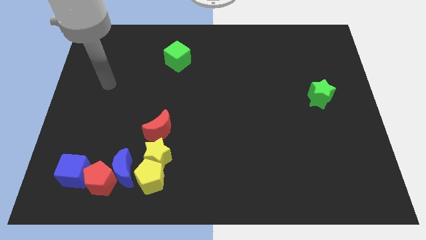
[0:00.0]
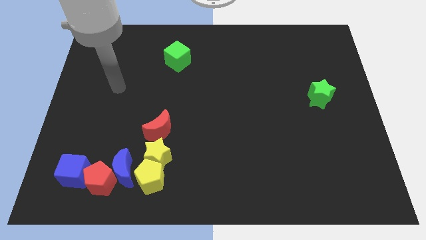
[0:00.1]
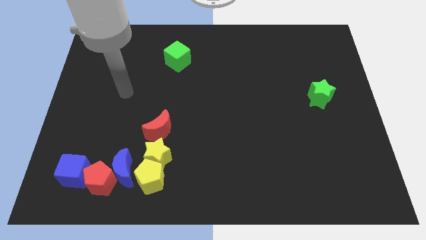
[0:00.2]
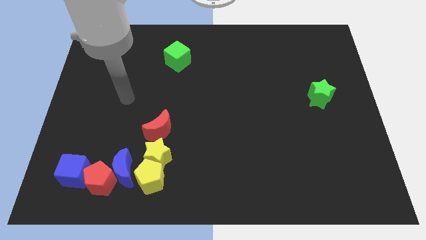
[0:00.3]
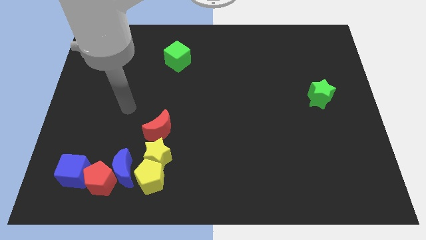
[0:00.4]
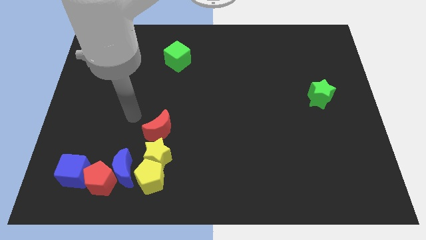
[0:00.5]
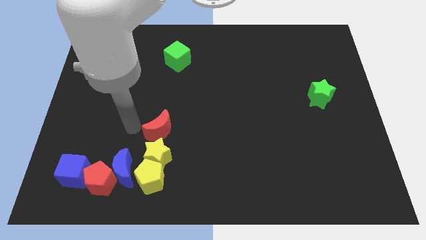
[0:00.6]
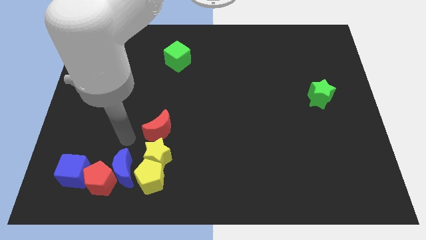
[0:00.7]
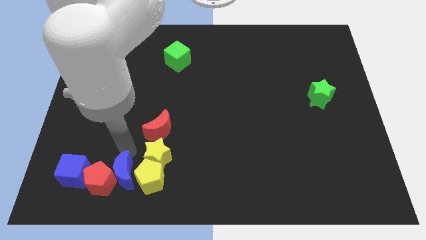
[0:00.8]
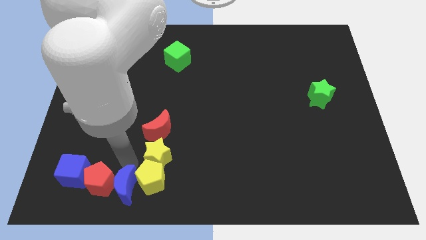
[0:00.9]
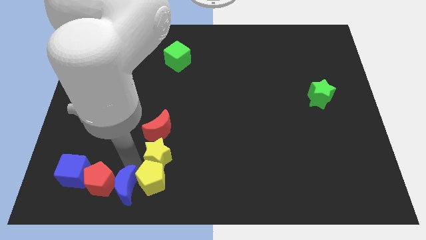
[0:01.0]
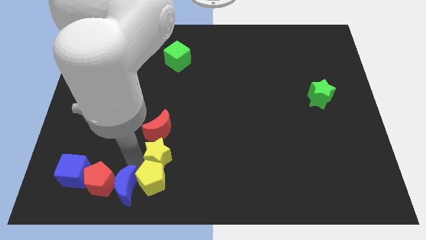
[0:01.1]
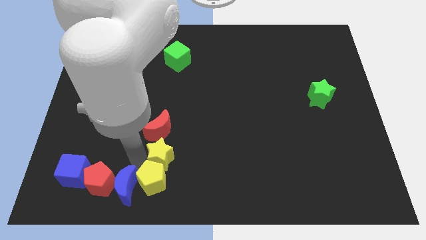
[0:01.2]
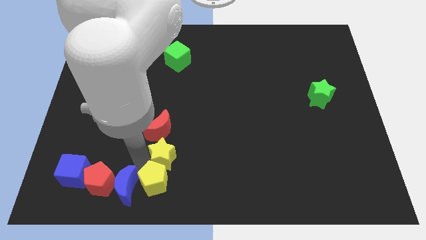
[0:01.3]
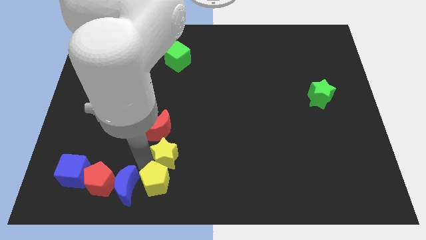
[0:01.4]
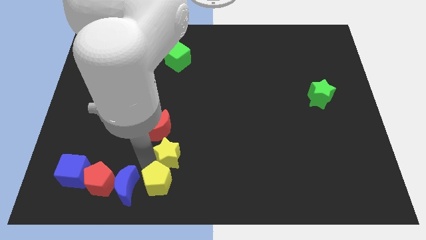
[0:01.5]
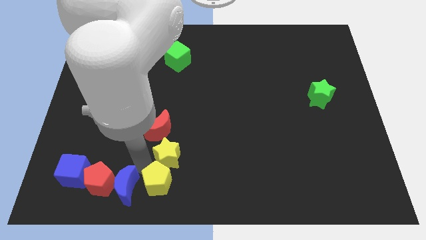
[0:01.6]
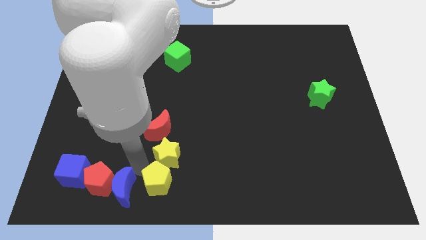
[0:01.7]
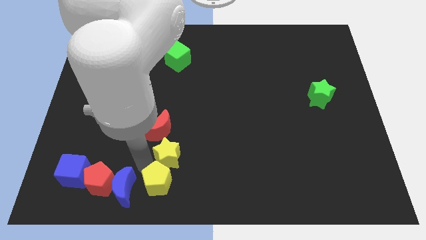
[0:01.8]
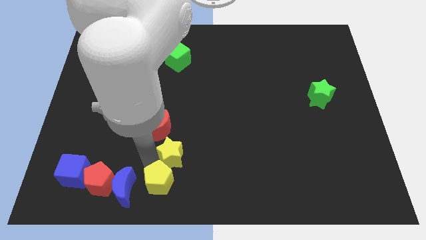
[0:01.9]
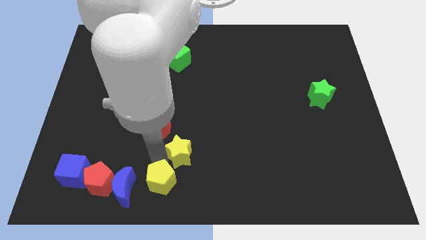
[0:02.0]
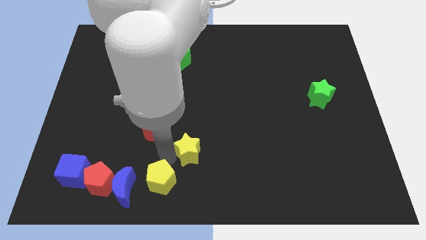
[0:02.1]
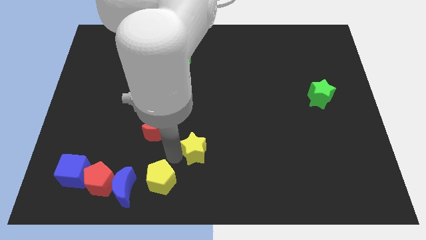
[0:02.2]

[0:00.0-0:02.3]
separate the yellow star from the yellow pentagon, red moon, and blue moon

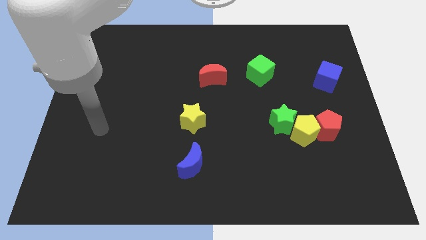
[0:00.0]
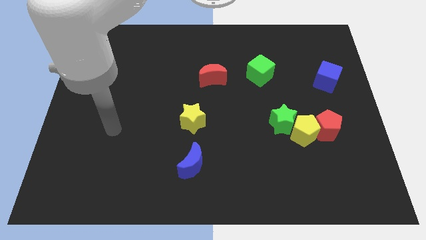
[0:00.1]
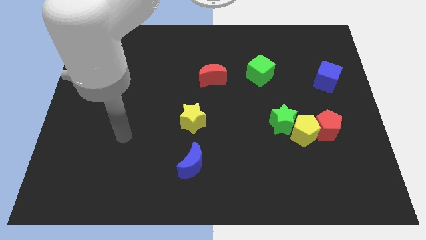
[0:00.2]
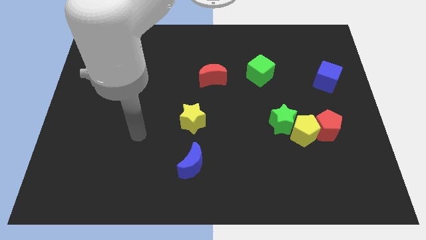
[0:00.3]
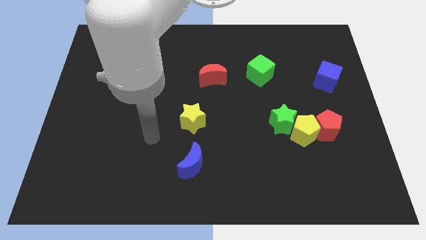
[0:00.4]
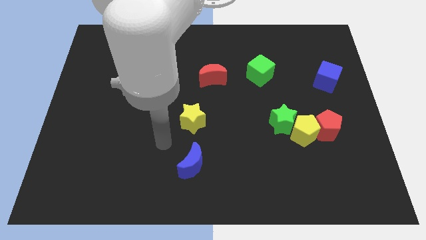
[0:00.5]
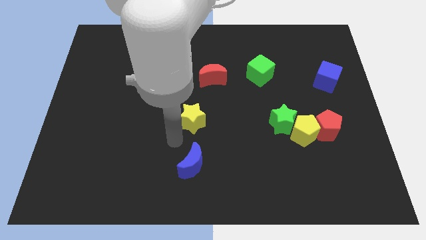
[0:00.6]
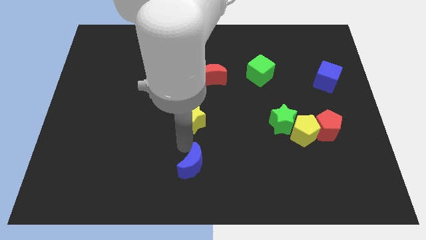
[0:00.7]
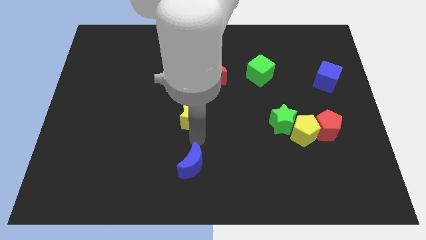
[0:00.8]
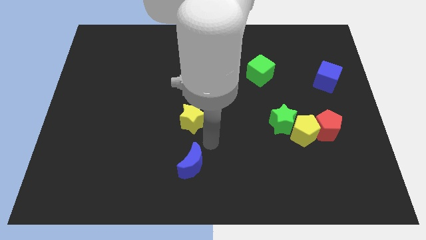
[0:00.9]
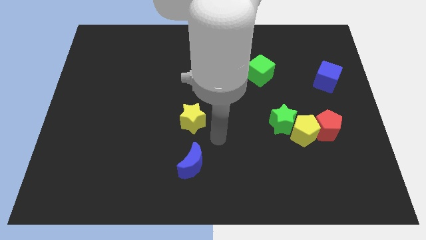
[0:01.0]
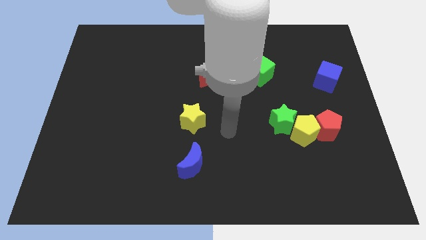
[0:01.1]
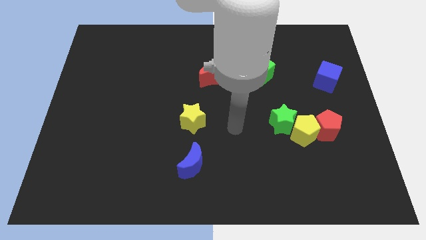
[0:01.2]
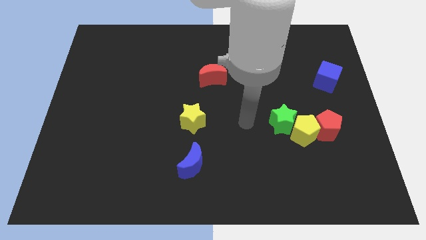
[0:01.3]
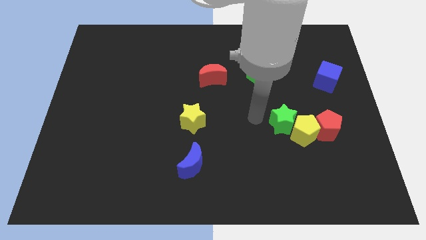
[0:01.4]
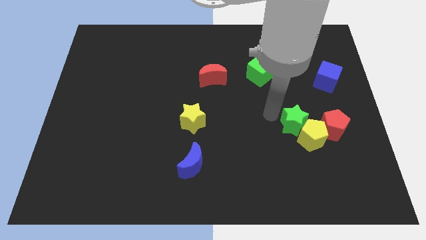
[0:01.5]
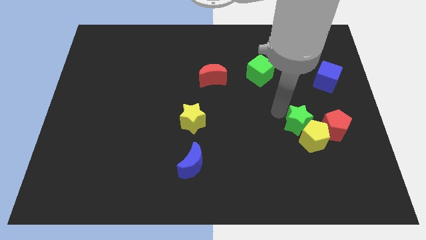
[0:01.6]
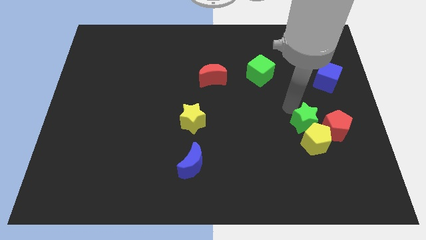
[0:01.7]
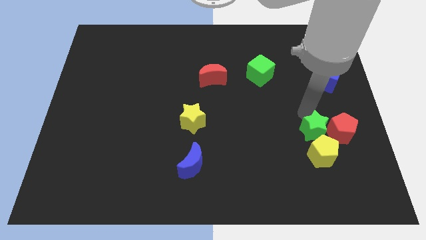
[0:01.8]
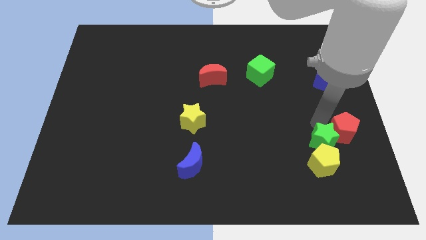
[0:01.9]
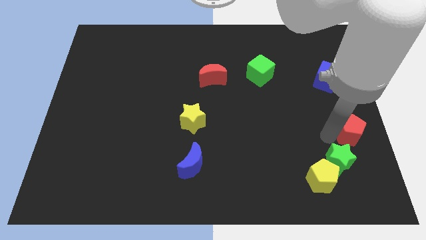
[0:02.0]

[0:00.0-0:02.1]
pull the yellow pentagon apart from the red pentagon and green star

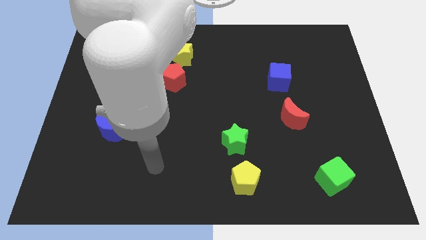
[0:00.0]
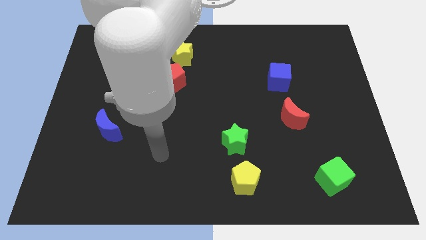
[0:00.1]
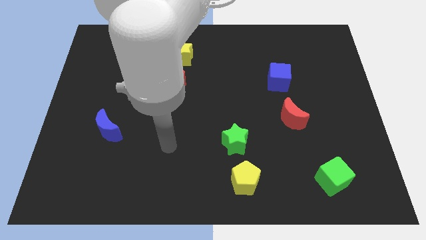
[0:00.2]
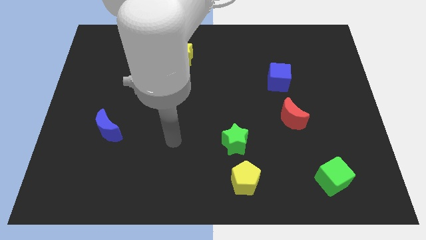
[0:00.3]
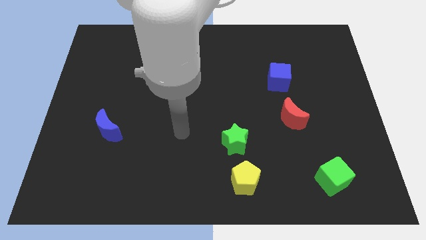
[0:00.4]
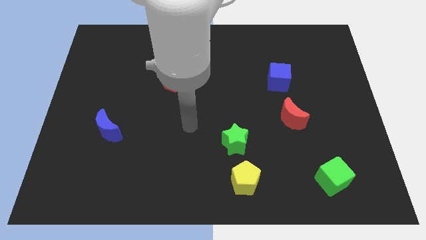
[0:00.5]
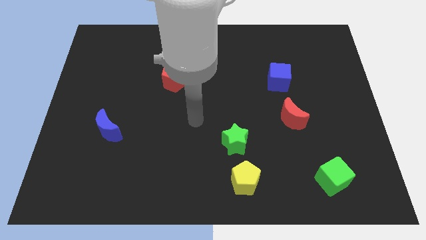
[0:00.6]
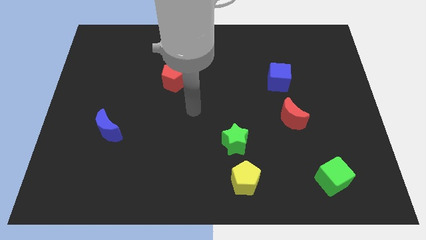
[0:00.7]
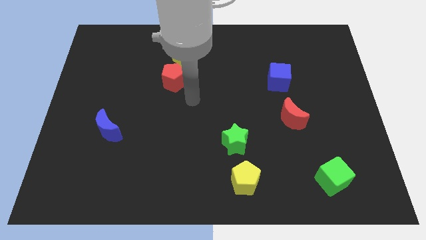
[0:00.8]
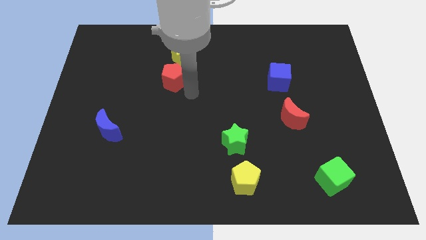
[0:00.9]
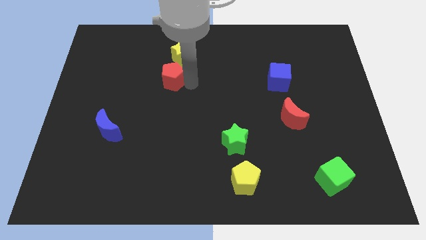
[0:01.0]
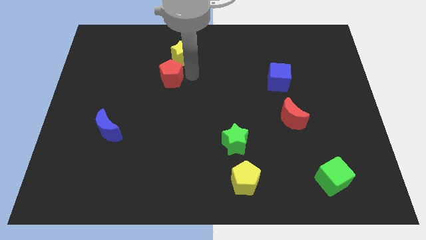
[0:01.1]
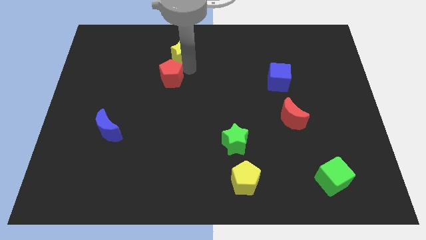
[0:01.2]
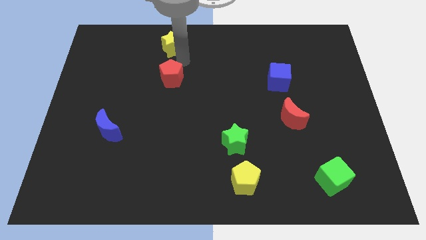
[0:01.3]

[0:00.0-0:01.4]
pull the red pentagon apart from the yellow star

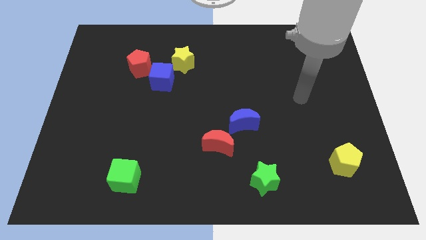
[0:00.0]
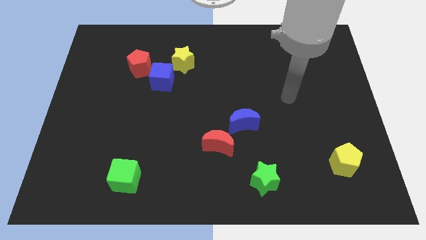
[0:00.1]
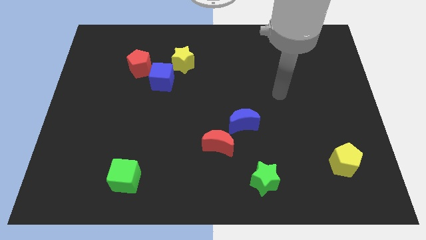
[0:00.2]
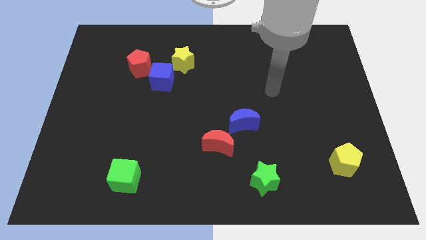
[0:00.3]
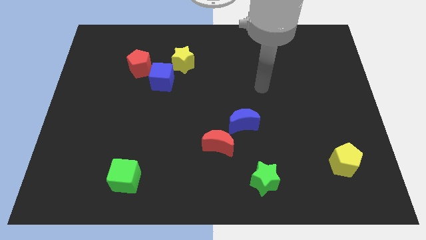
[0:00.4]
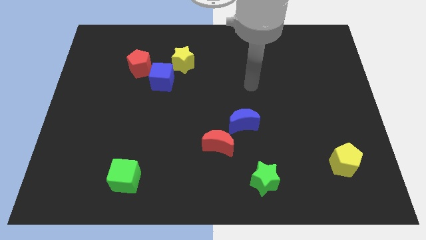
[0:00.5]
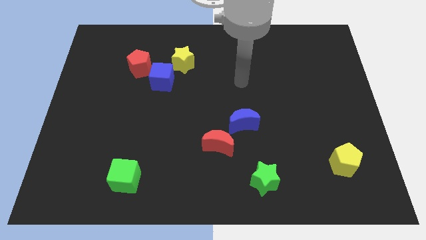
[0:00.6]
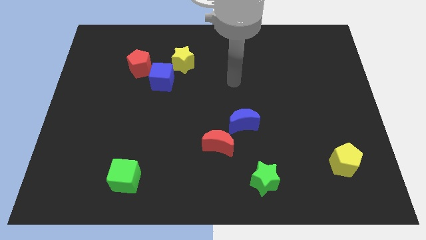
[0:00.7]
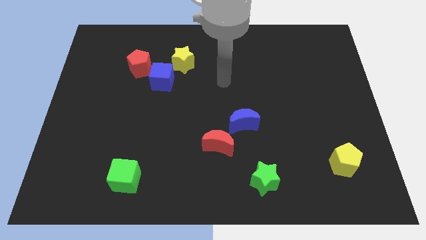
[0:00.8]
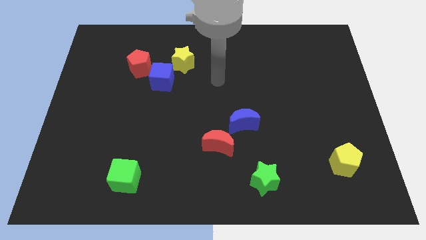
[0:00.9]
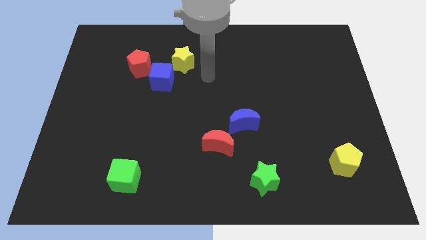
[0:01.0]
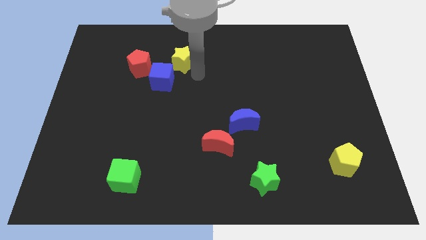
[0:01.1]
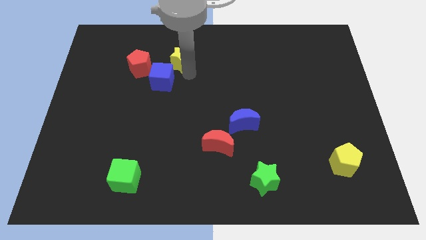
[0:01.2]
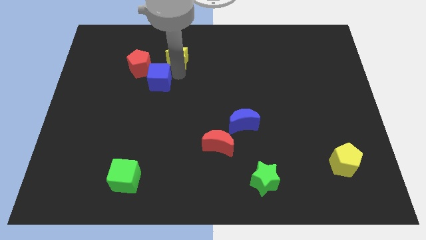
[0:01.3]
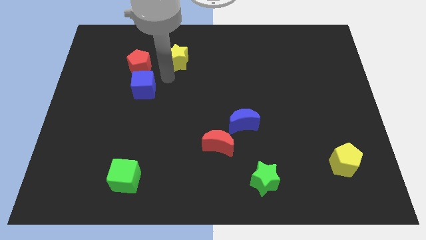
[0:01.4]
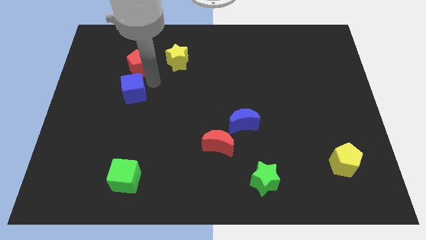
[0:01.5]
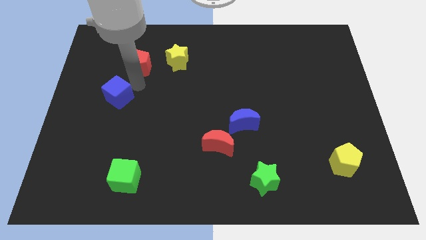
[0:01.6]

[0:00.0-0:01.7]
separate the red pentagon from the blue cube

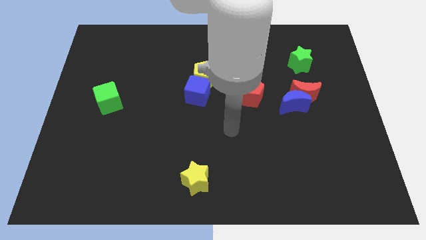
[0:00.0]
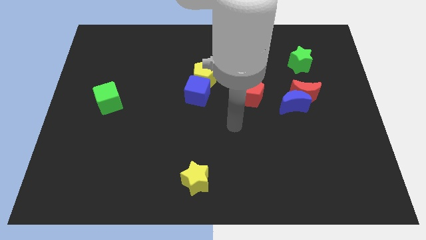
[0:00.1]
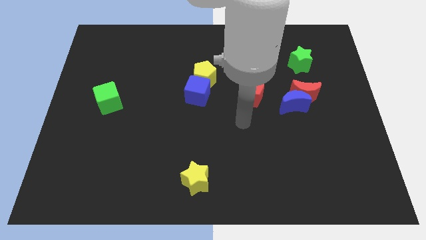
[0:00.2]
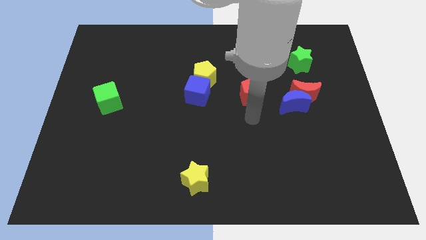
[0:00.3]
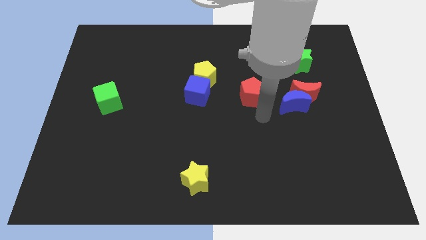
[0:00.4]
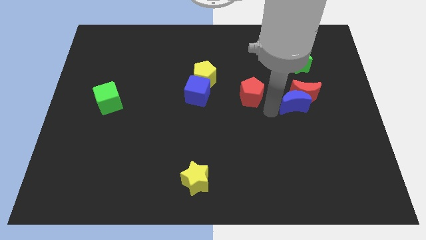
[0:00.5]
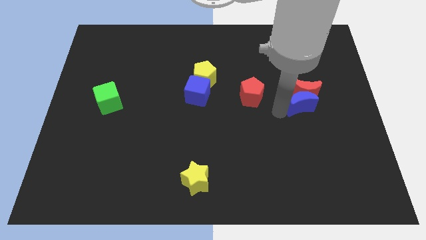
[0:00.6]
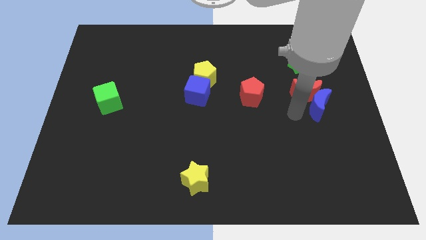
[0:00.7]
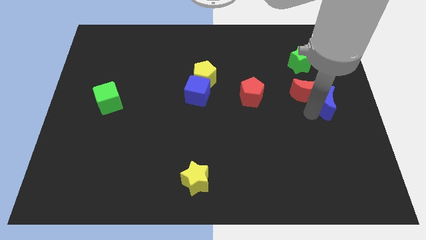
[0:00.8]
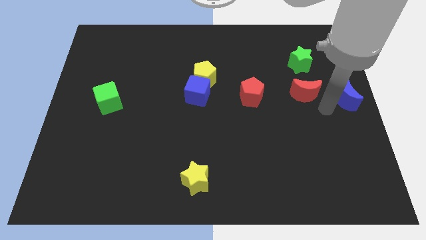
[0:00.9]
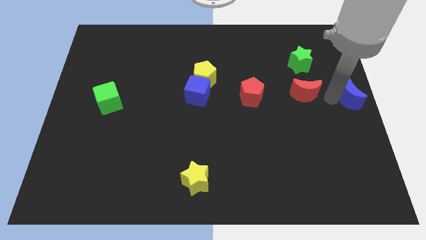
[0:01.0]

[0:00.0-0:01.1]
pull the red moon apart from the blue moon

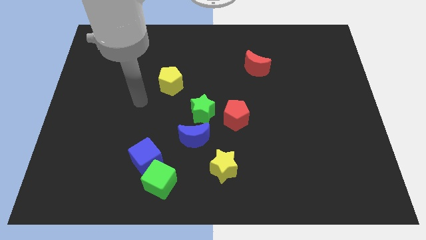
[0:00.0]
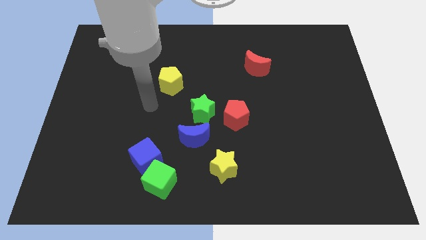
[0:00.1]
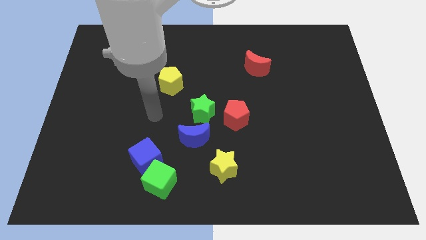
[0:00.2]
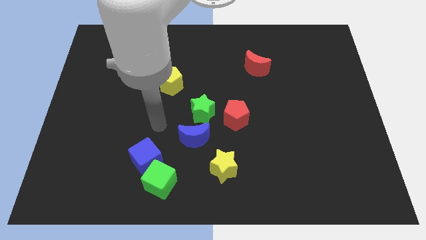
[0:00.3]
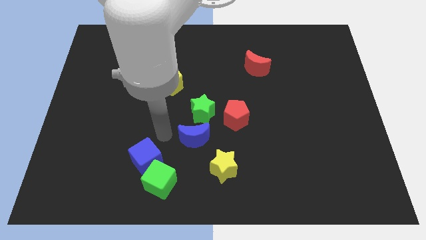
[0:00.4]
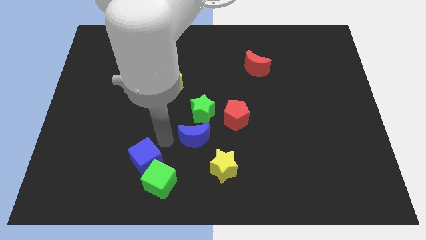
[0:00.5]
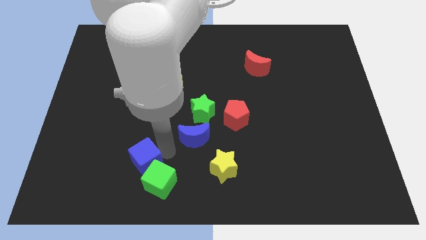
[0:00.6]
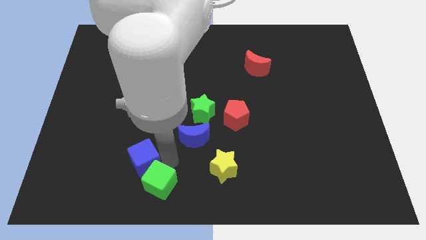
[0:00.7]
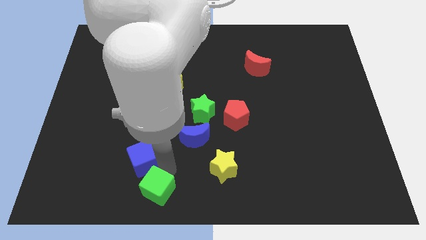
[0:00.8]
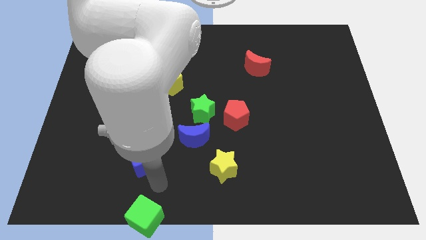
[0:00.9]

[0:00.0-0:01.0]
separate the blue cube from the green cube
